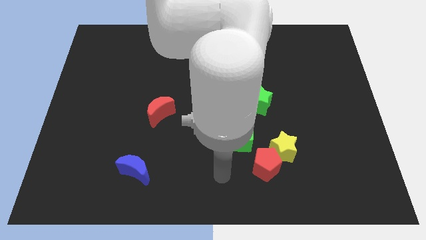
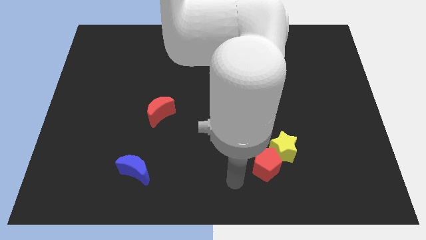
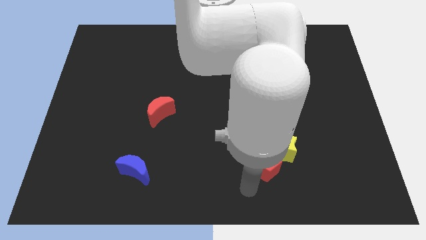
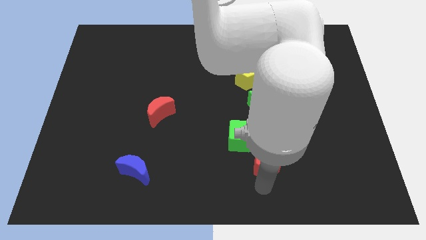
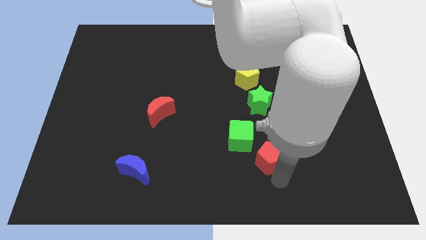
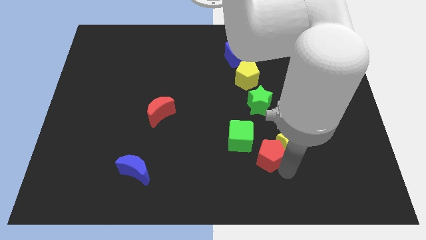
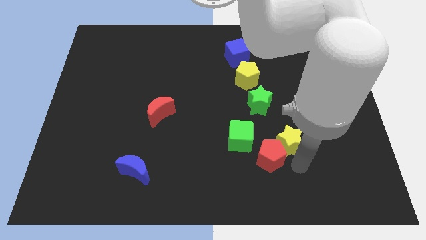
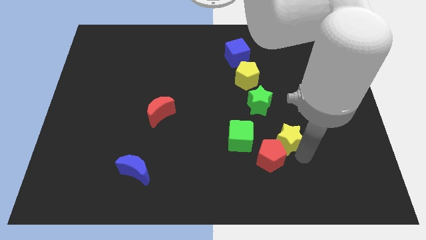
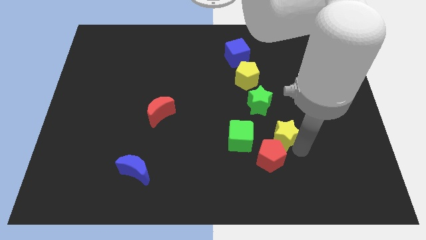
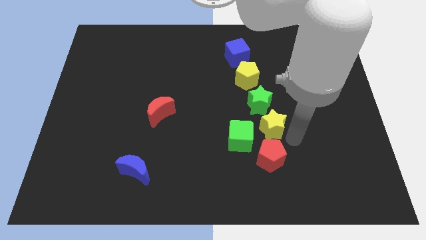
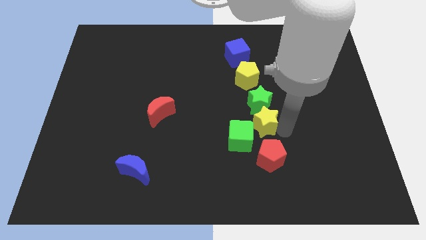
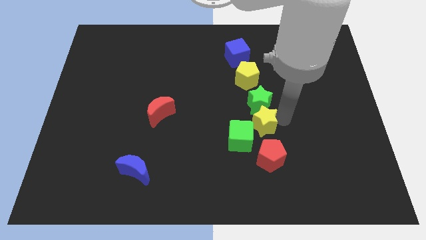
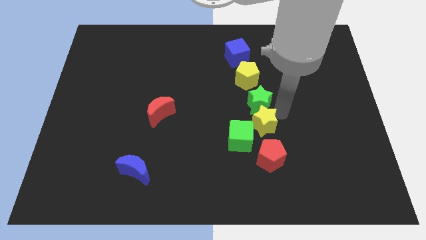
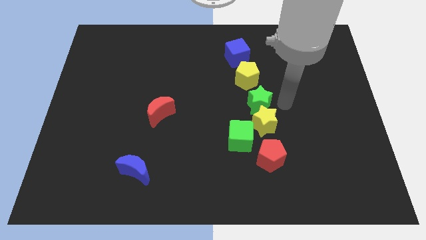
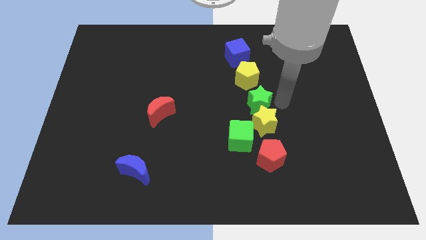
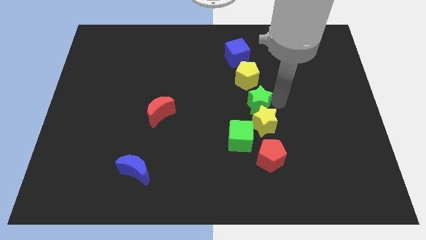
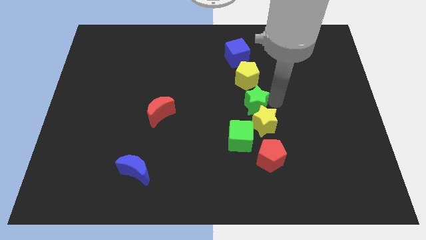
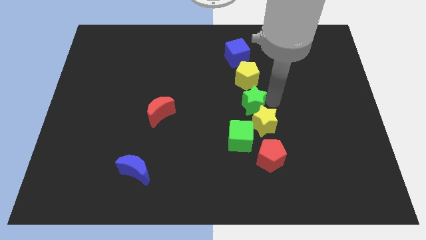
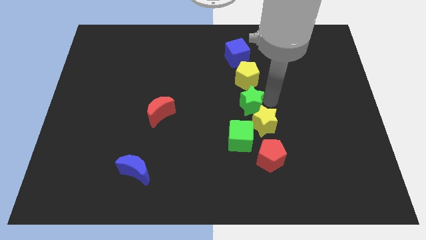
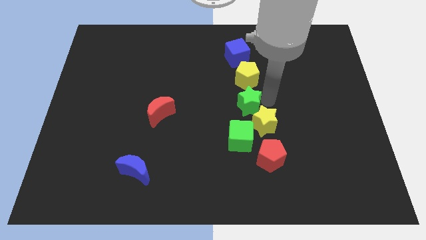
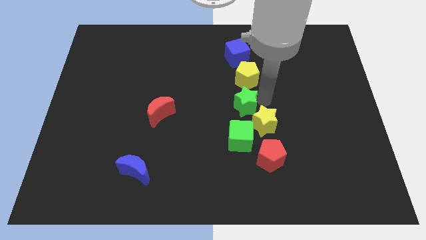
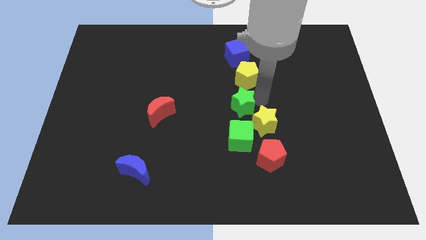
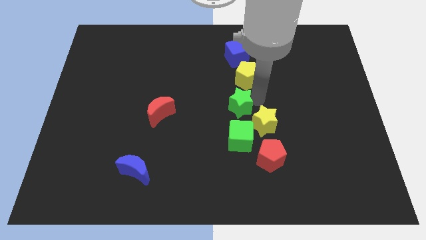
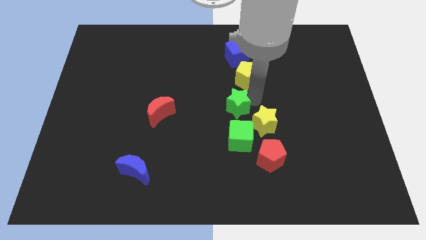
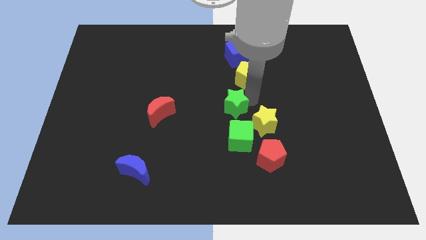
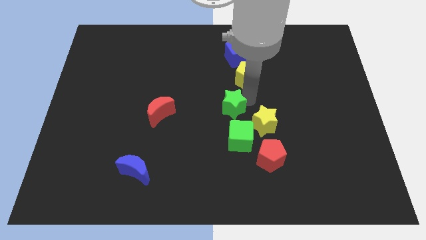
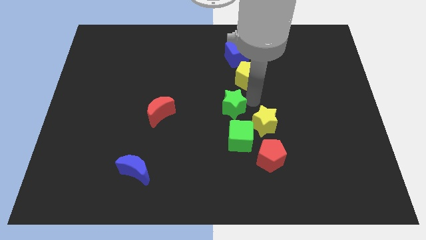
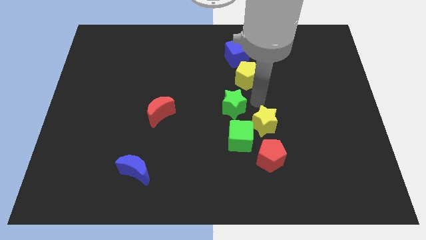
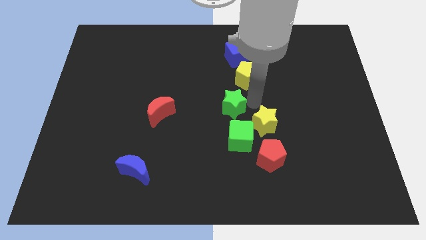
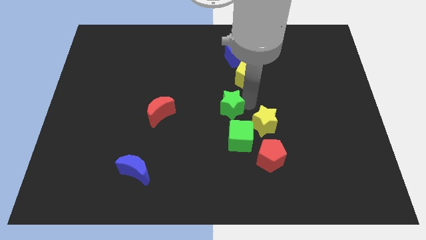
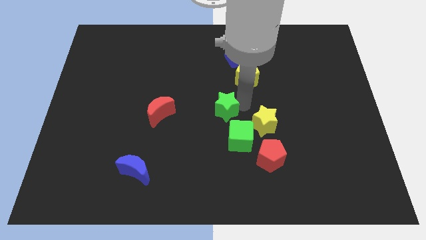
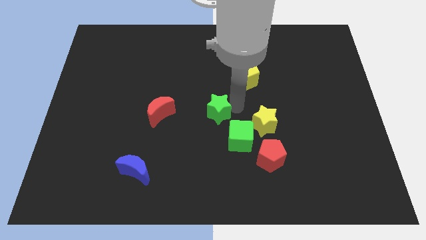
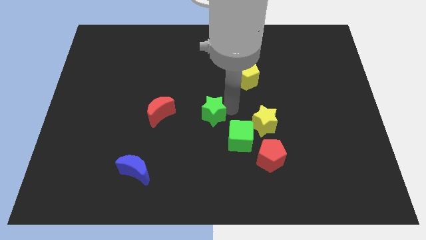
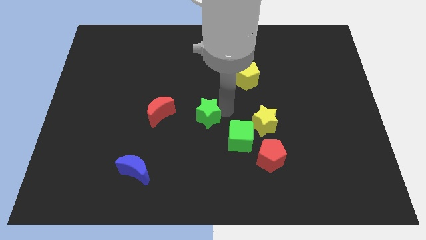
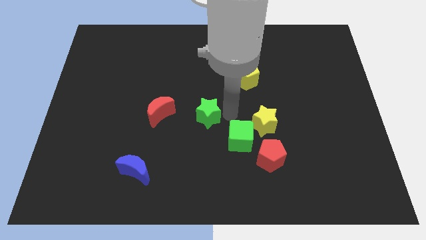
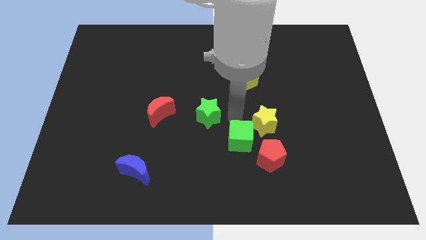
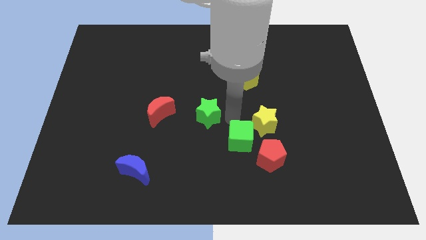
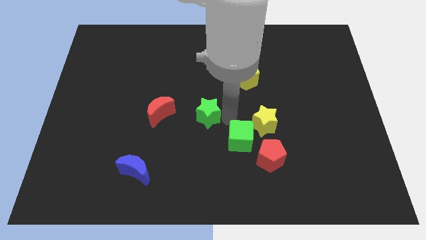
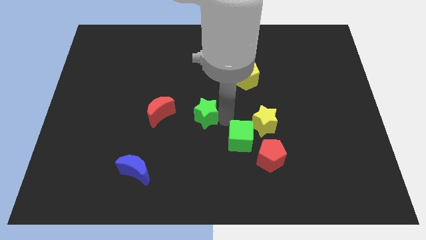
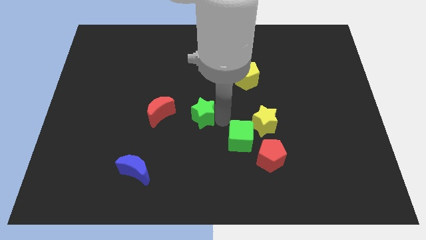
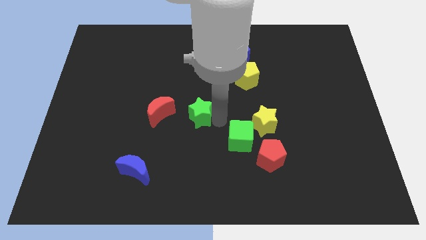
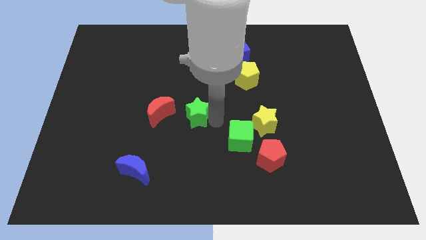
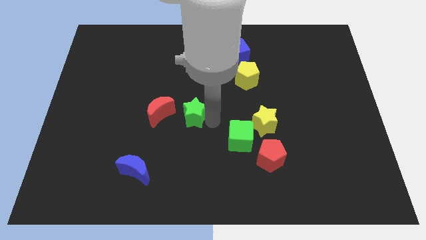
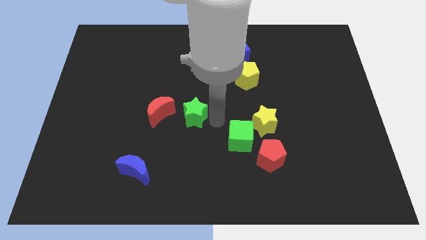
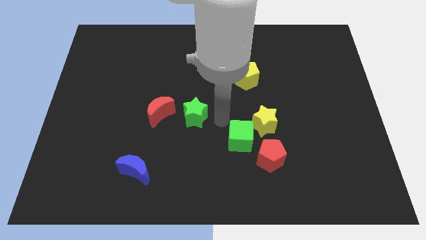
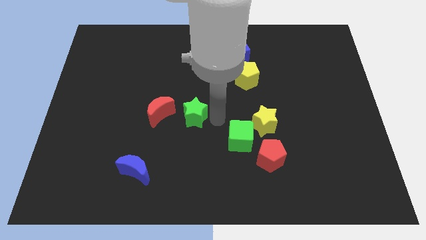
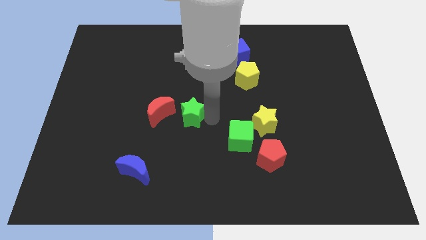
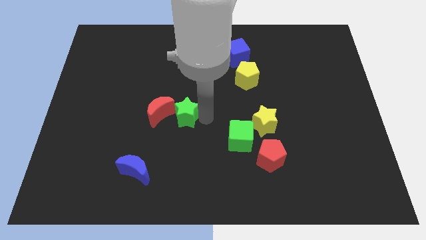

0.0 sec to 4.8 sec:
push the green star to the red moon

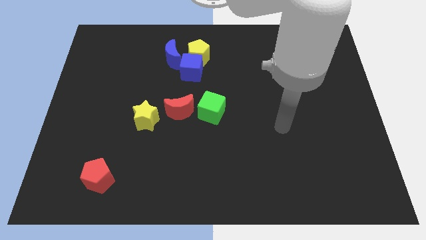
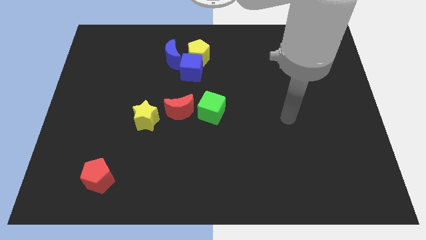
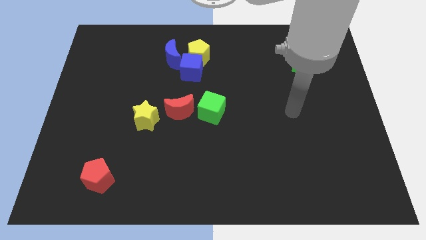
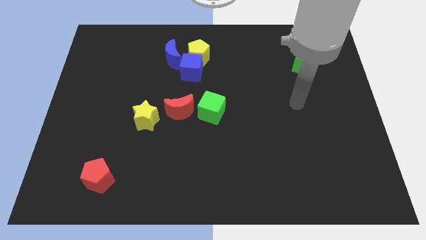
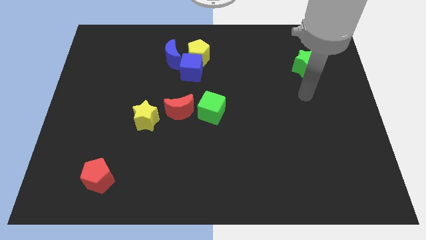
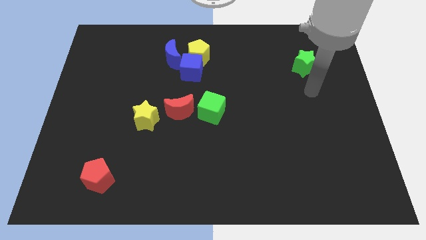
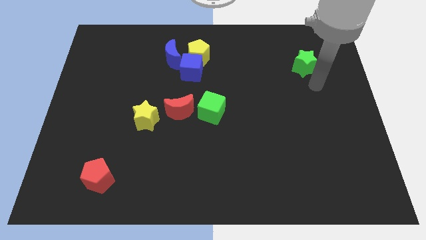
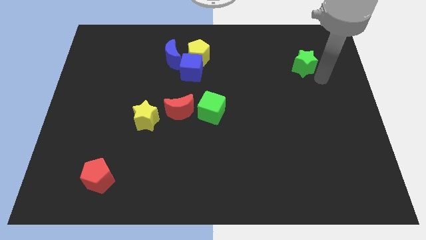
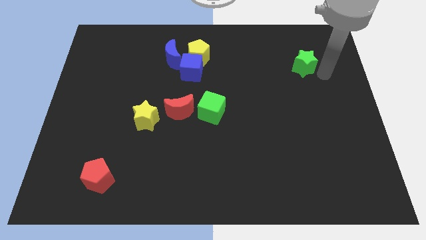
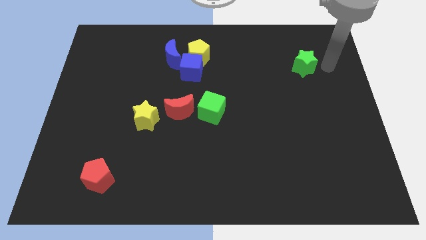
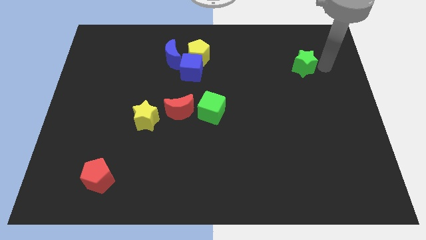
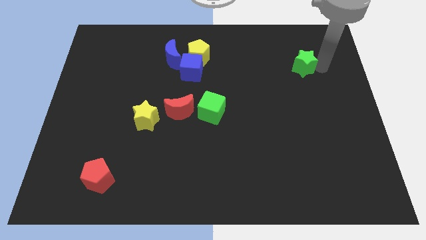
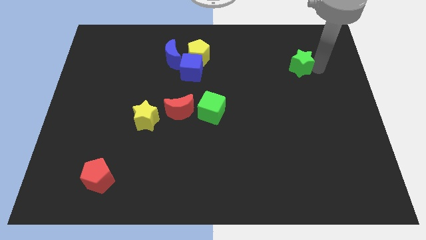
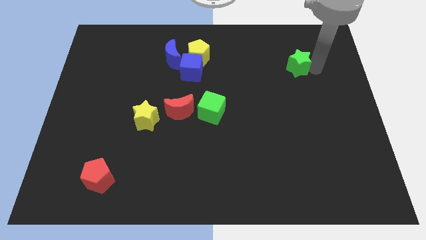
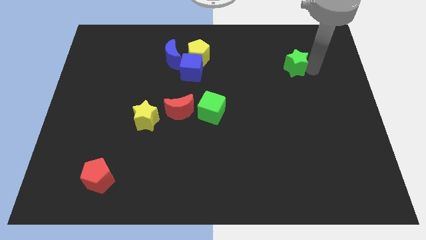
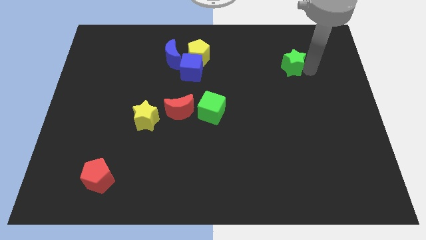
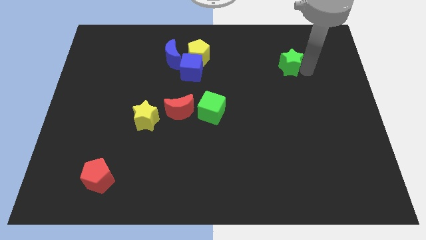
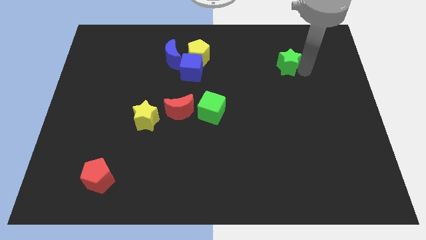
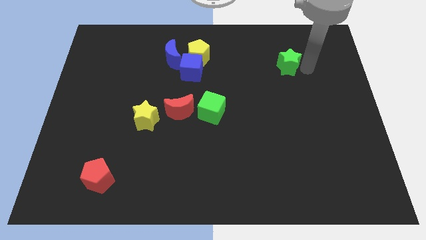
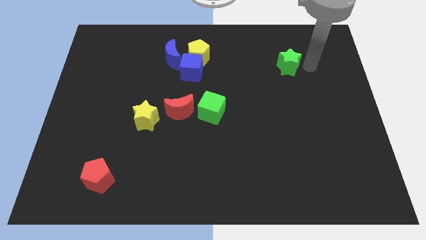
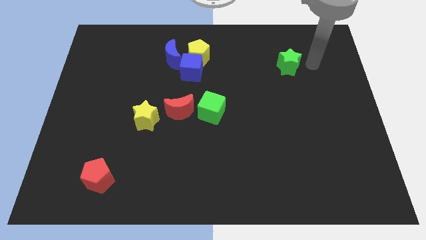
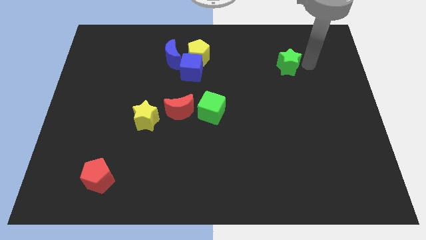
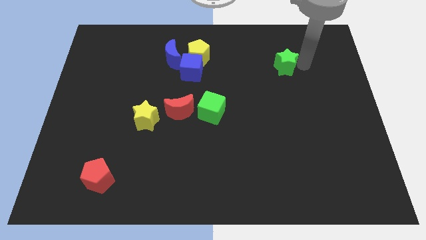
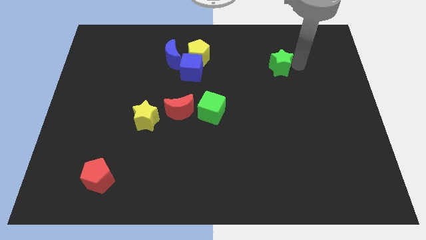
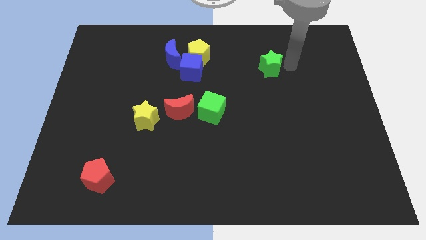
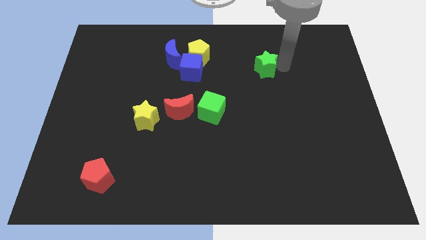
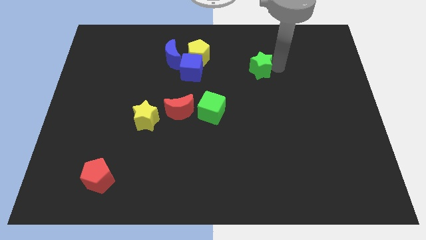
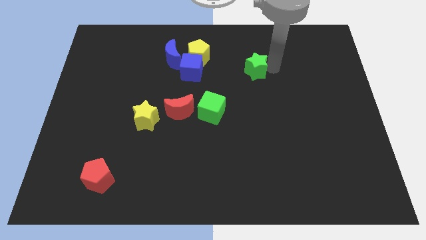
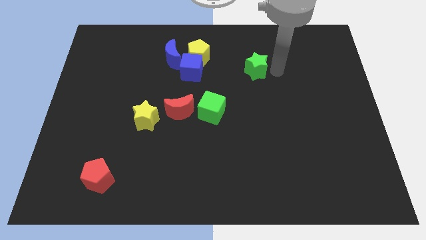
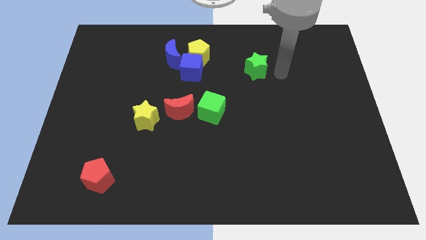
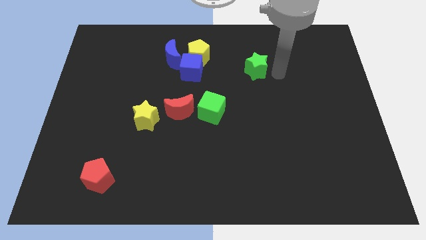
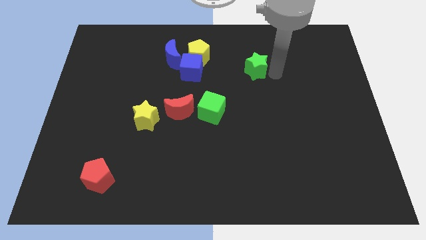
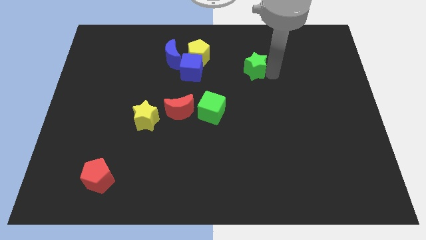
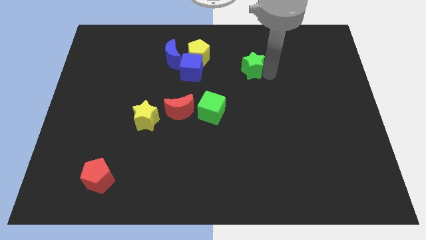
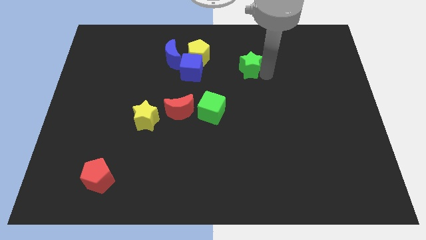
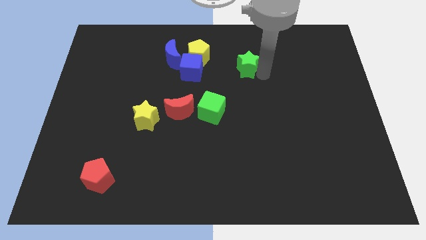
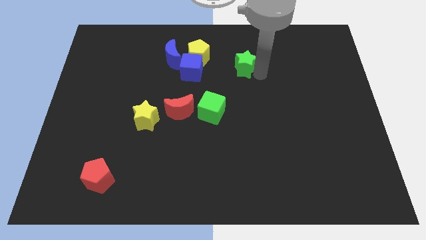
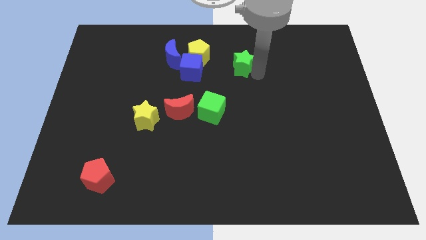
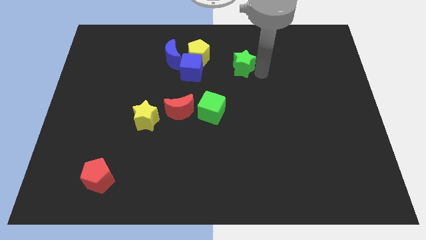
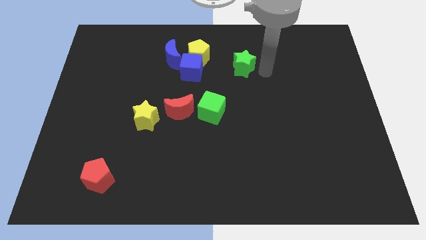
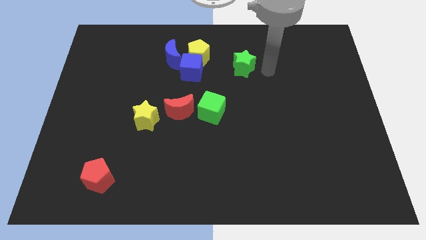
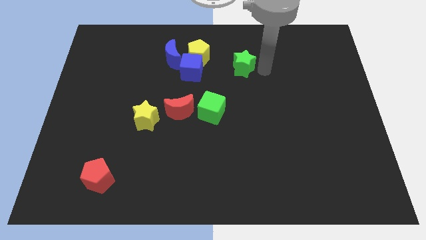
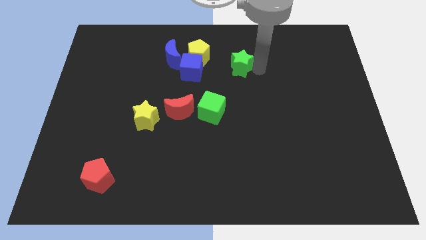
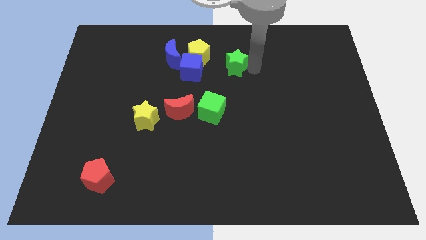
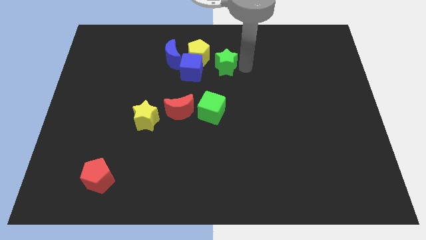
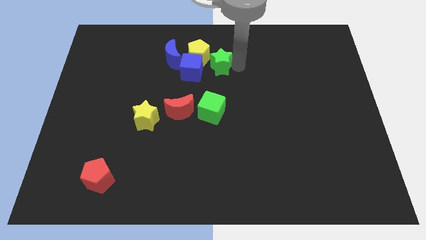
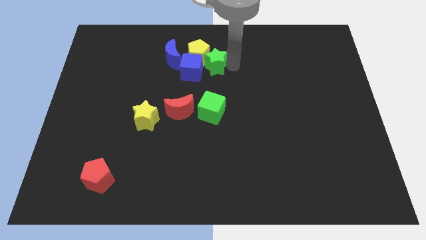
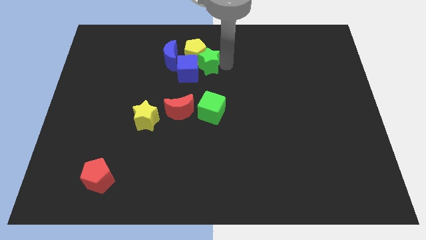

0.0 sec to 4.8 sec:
push the green star next to the blue cube
